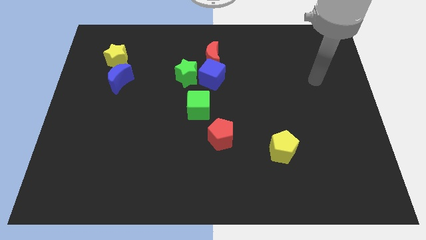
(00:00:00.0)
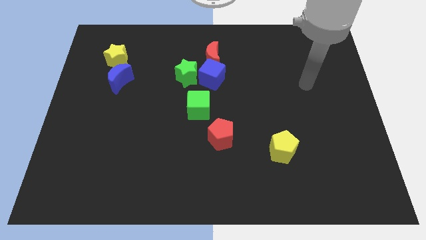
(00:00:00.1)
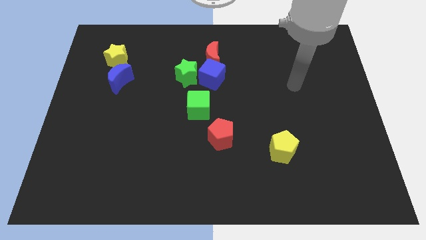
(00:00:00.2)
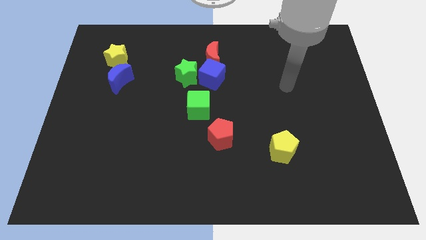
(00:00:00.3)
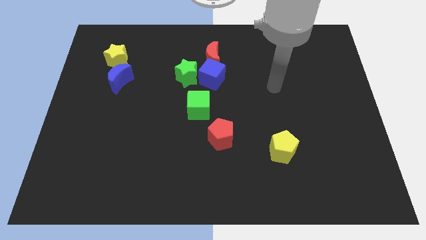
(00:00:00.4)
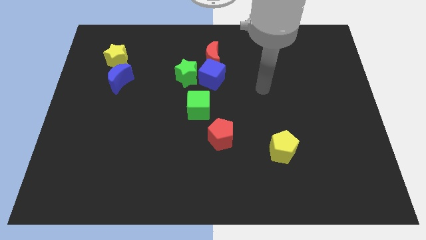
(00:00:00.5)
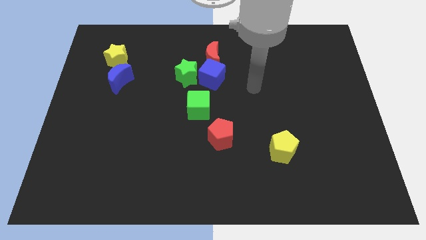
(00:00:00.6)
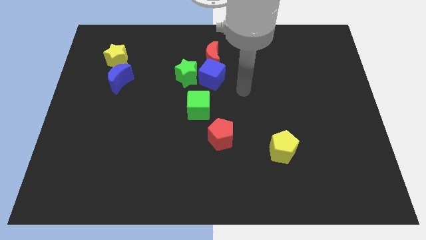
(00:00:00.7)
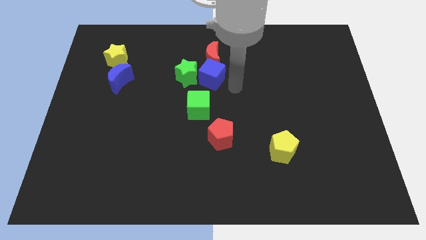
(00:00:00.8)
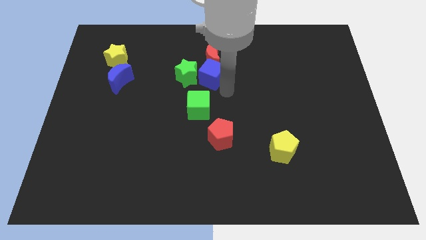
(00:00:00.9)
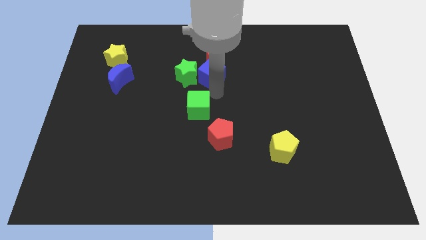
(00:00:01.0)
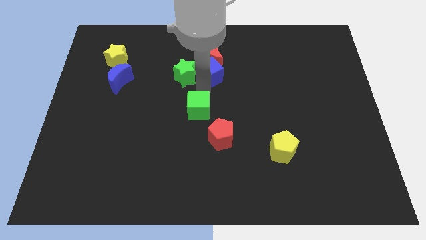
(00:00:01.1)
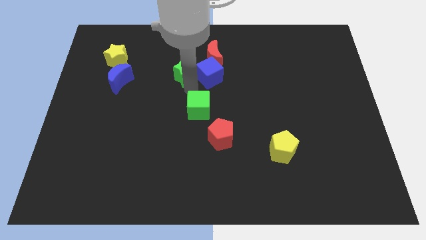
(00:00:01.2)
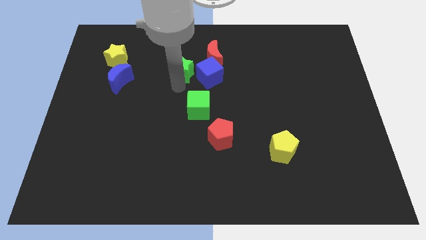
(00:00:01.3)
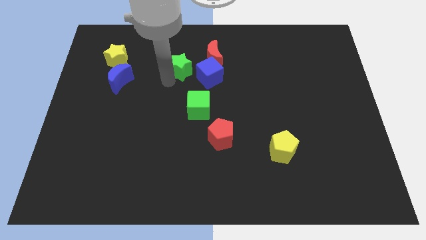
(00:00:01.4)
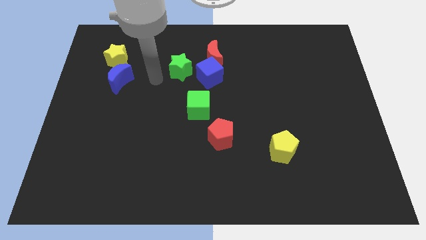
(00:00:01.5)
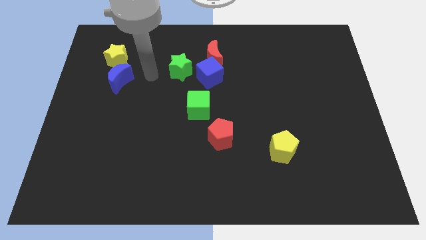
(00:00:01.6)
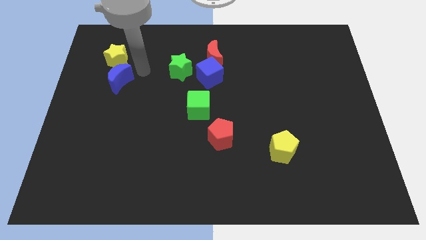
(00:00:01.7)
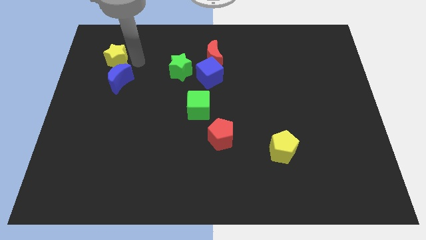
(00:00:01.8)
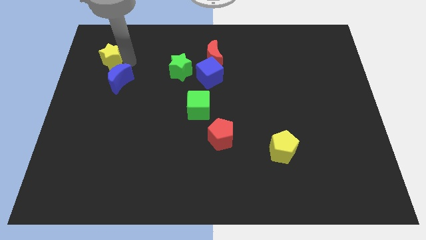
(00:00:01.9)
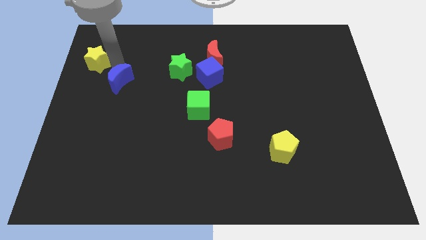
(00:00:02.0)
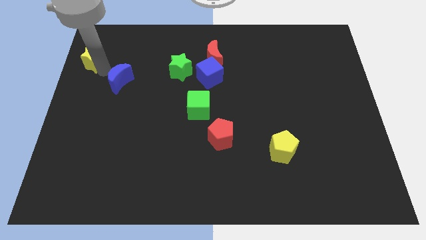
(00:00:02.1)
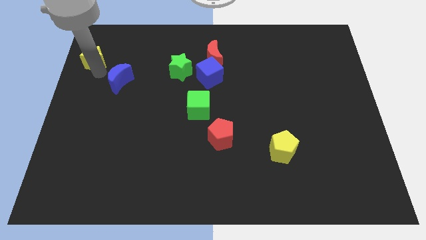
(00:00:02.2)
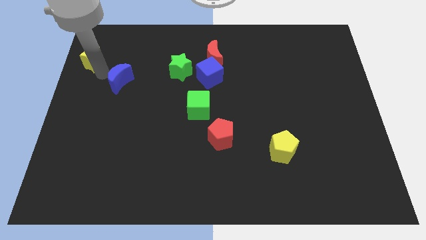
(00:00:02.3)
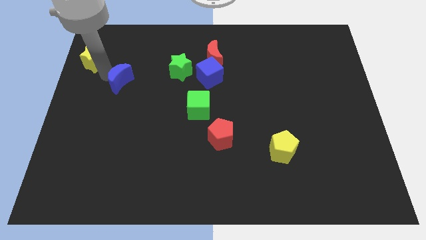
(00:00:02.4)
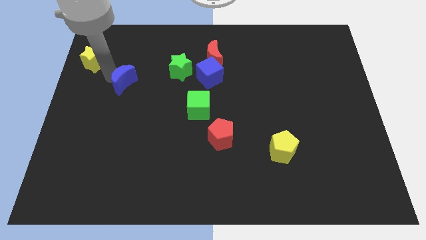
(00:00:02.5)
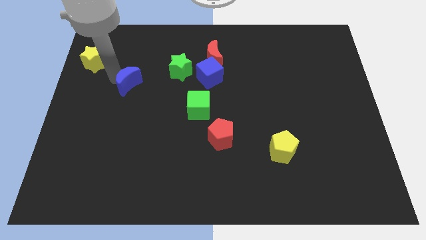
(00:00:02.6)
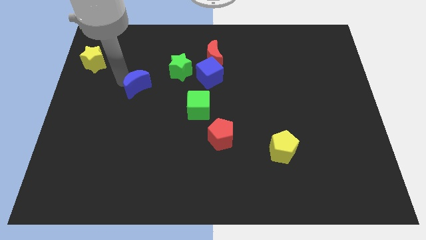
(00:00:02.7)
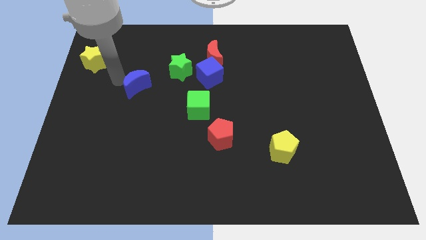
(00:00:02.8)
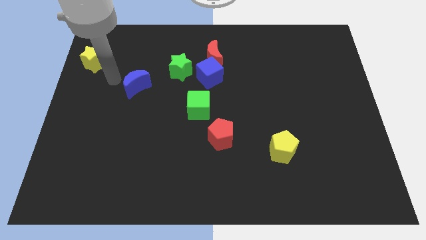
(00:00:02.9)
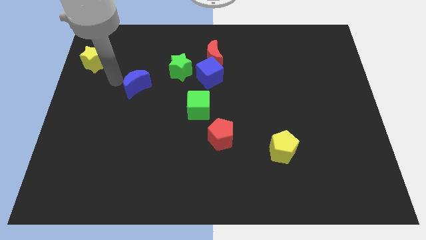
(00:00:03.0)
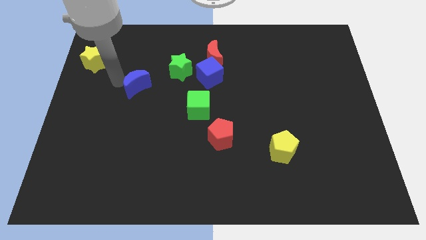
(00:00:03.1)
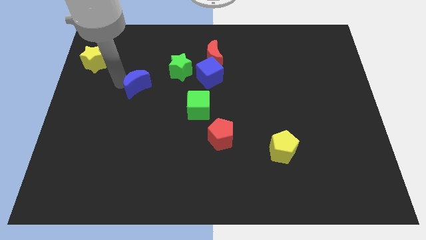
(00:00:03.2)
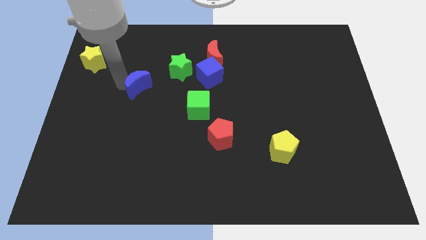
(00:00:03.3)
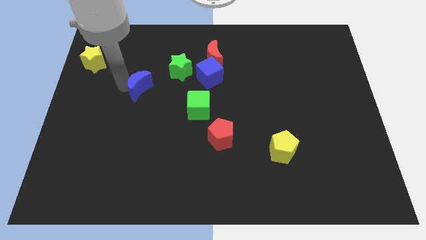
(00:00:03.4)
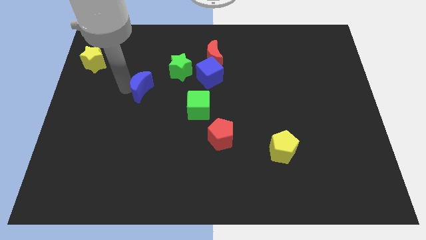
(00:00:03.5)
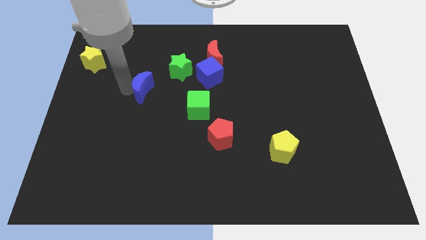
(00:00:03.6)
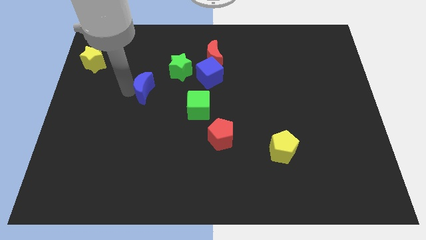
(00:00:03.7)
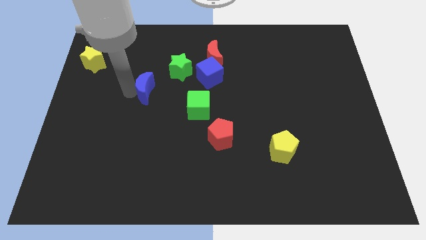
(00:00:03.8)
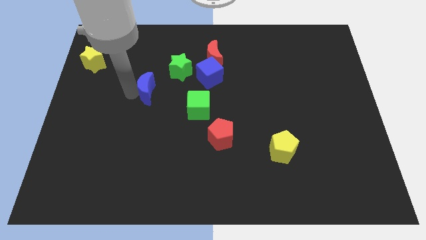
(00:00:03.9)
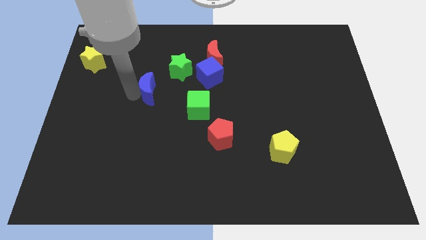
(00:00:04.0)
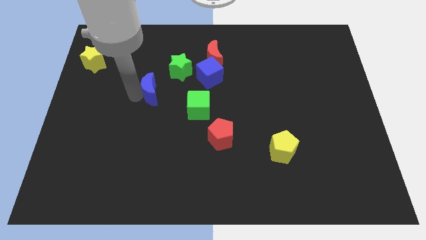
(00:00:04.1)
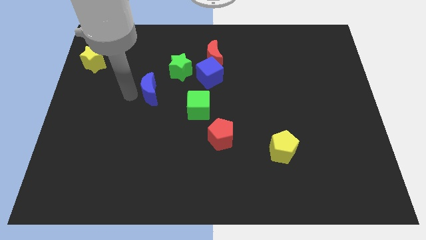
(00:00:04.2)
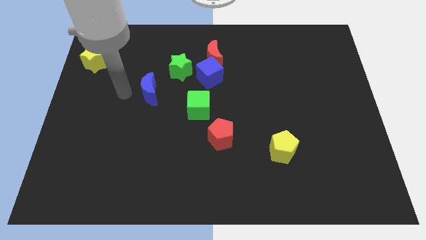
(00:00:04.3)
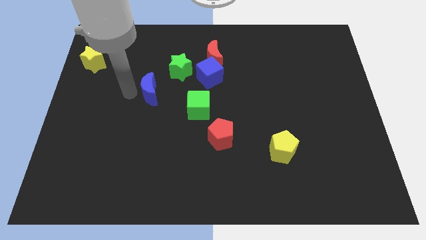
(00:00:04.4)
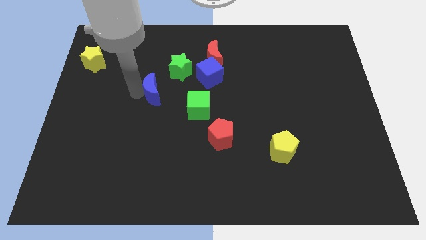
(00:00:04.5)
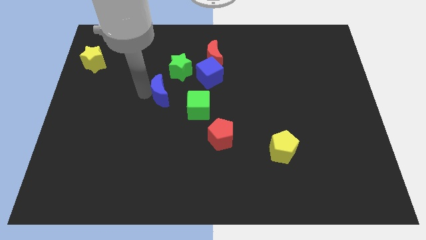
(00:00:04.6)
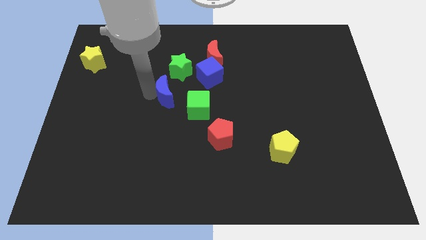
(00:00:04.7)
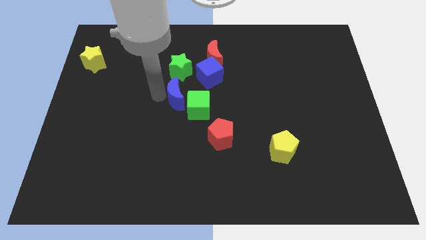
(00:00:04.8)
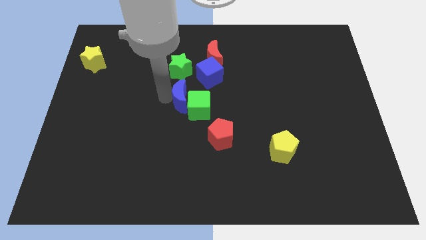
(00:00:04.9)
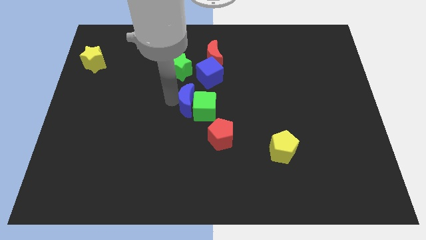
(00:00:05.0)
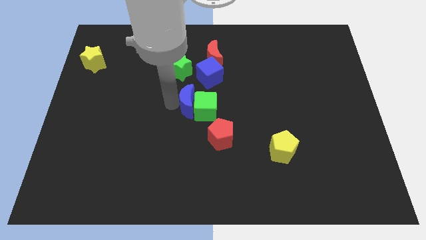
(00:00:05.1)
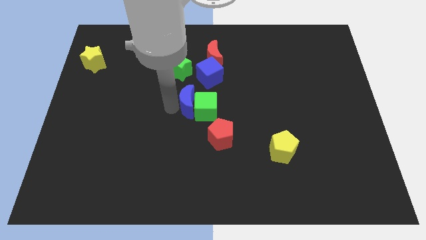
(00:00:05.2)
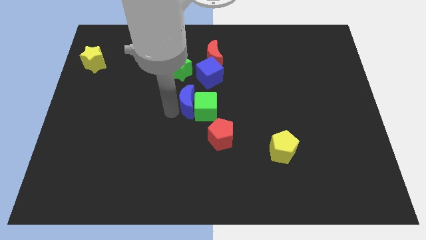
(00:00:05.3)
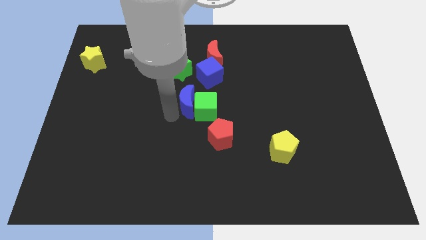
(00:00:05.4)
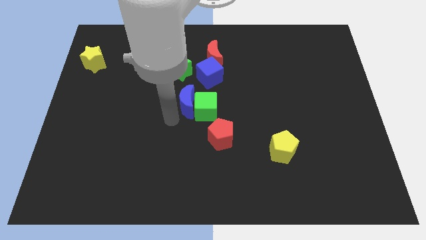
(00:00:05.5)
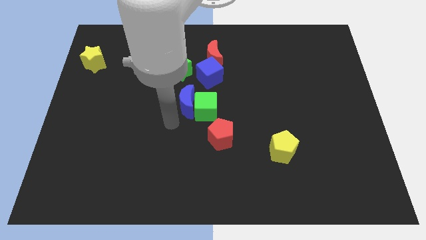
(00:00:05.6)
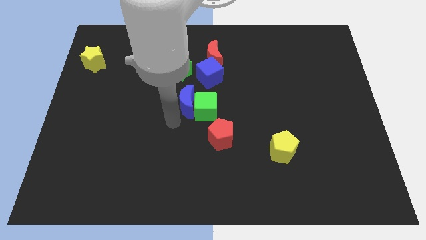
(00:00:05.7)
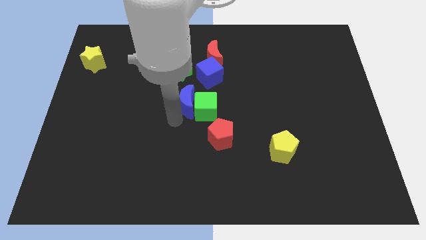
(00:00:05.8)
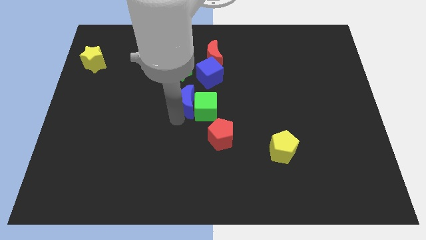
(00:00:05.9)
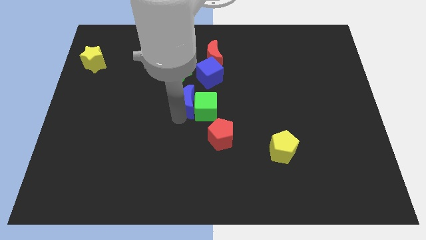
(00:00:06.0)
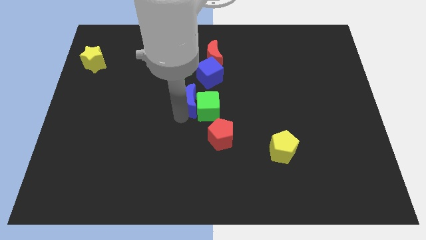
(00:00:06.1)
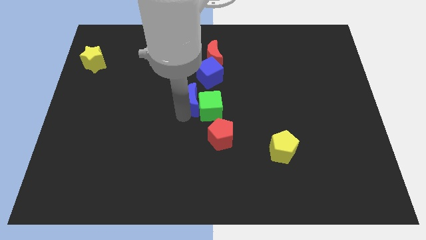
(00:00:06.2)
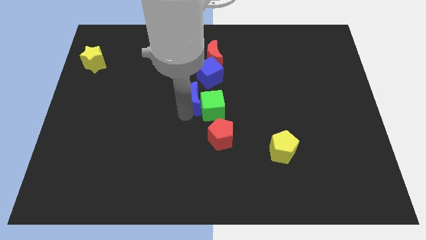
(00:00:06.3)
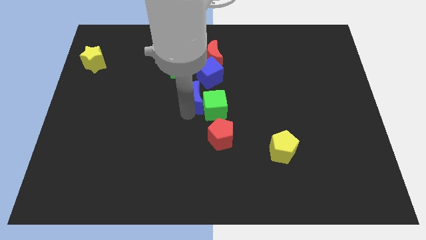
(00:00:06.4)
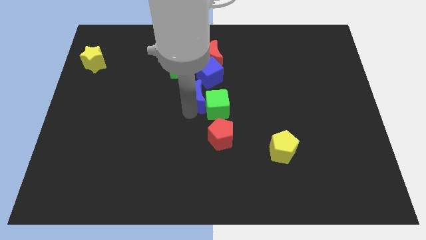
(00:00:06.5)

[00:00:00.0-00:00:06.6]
slide the blue moon to the bottom side of the red moon
